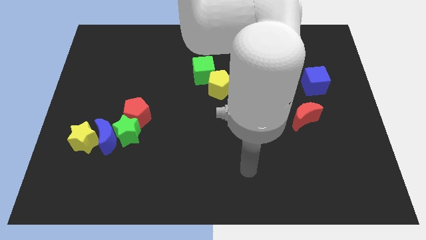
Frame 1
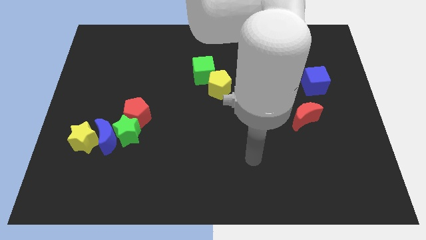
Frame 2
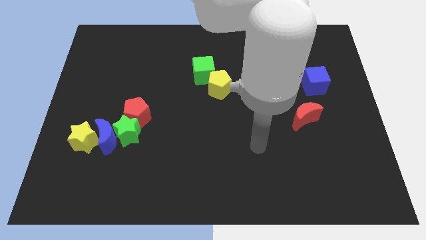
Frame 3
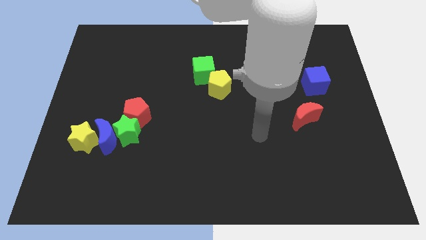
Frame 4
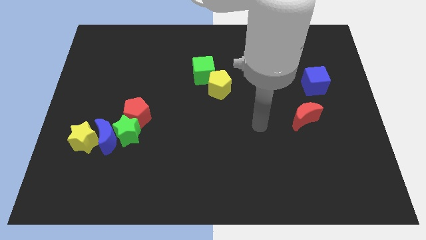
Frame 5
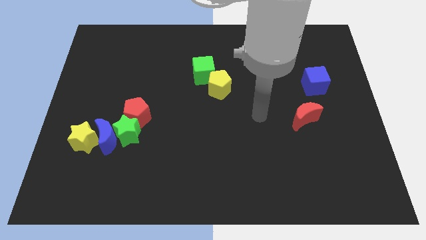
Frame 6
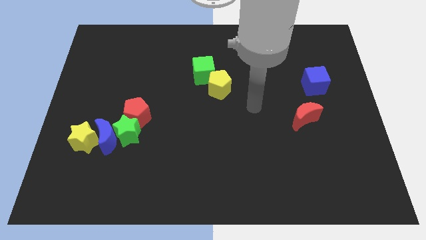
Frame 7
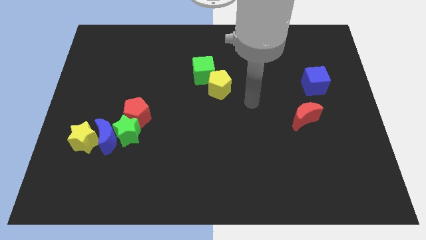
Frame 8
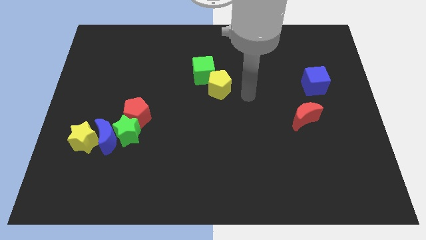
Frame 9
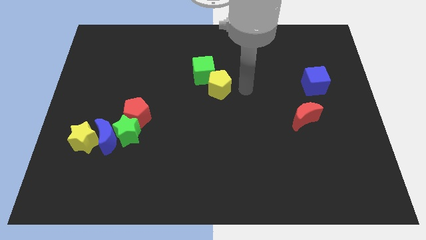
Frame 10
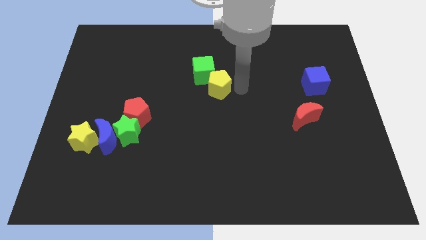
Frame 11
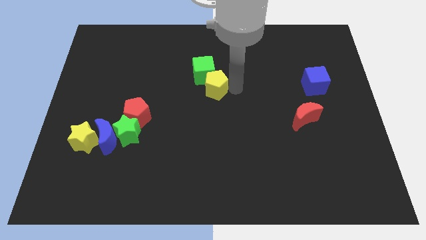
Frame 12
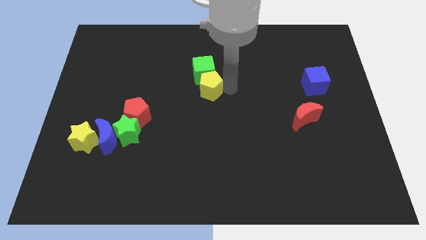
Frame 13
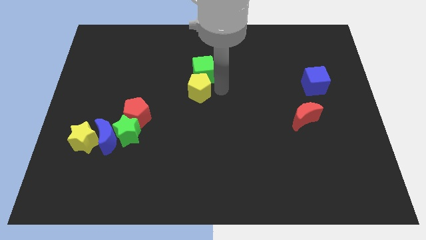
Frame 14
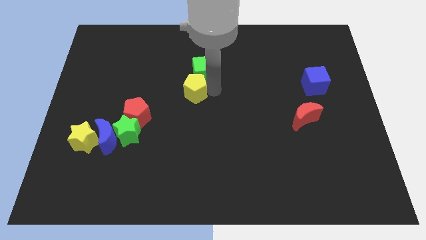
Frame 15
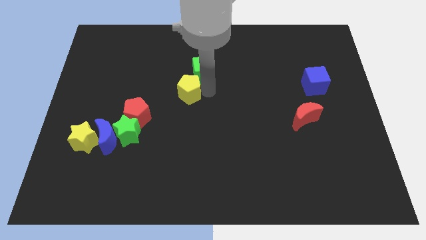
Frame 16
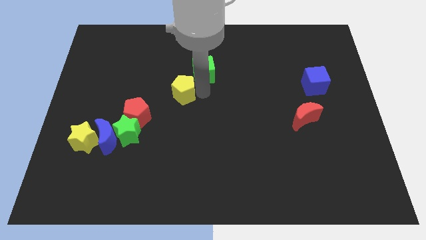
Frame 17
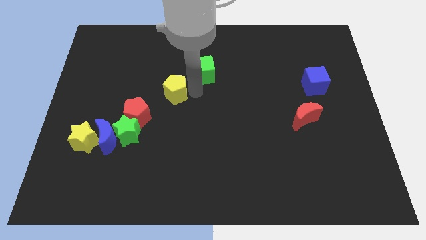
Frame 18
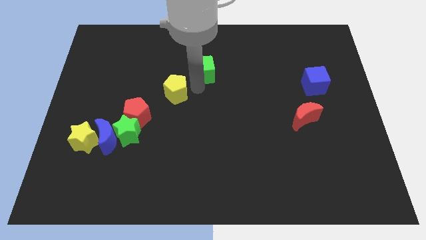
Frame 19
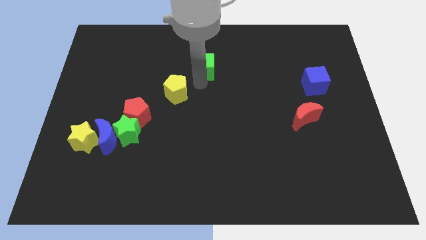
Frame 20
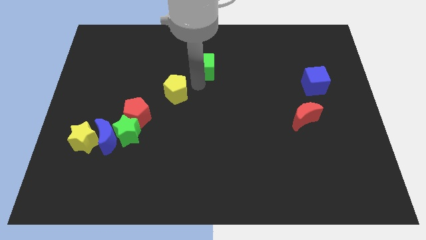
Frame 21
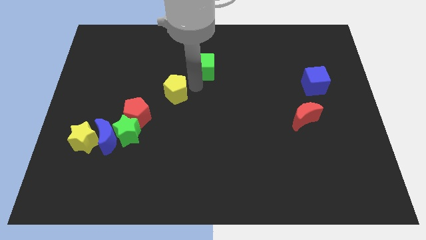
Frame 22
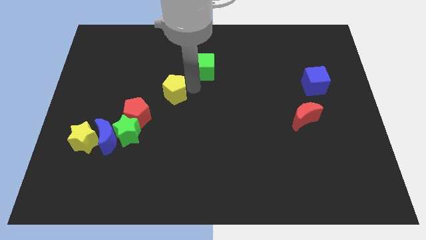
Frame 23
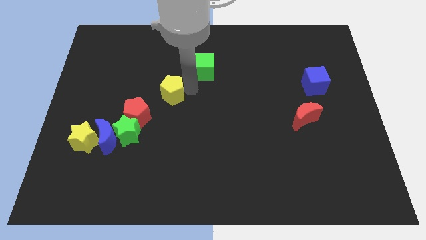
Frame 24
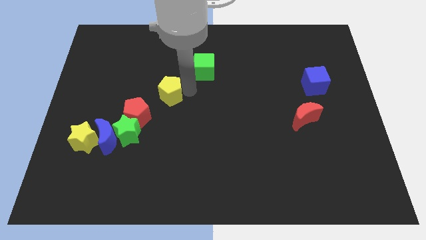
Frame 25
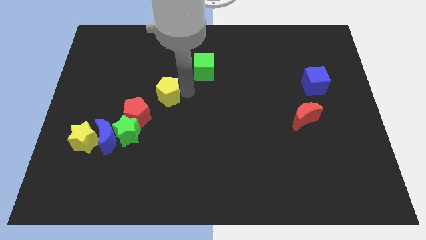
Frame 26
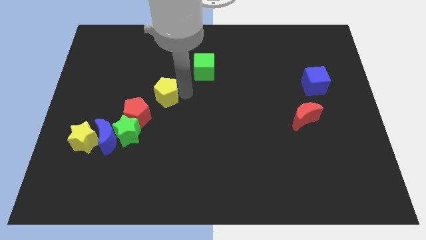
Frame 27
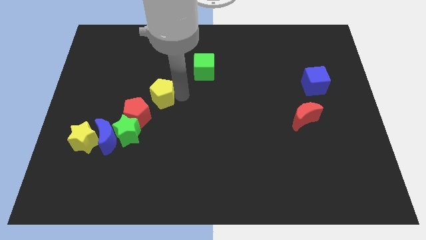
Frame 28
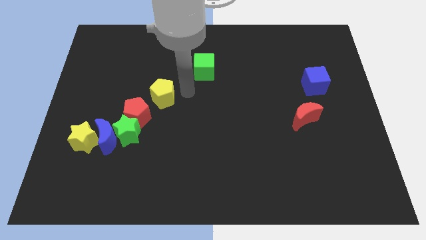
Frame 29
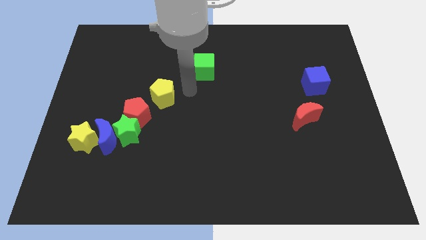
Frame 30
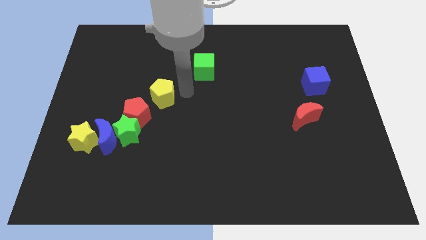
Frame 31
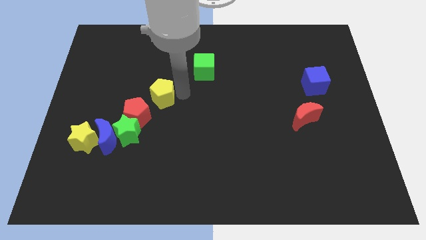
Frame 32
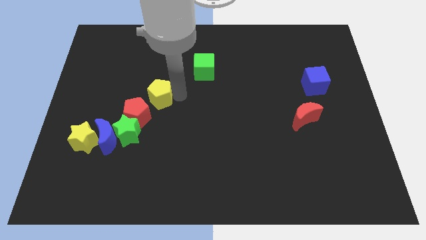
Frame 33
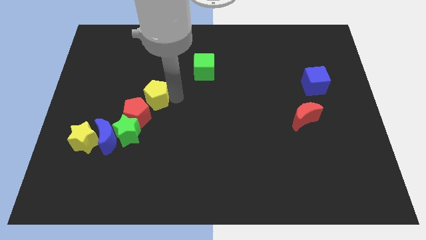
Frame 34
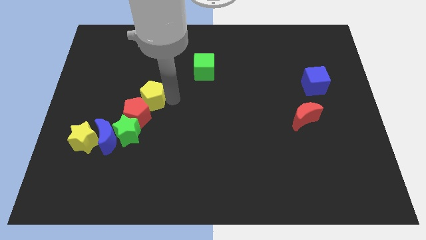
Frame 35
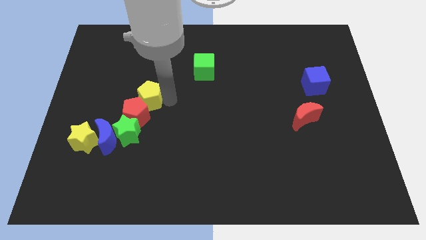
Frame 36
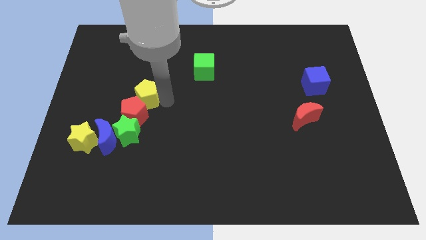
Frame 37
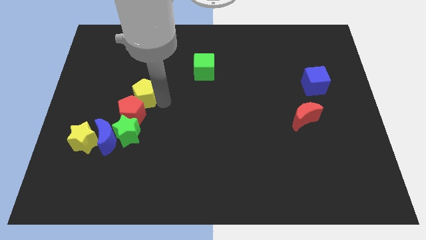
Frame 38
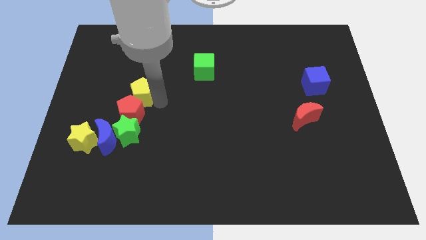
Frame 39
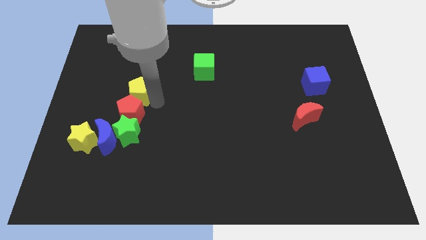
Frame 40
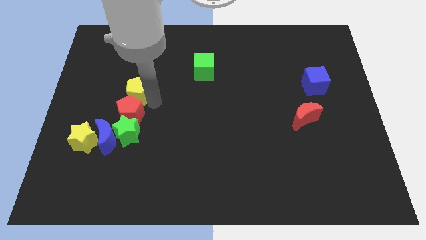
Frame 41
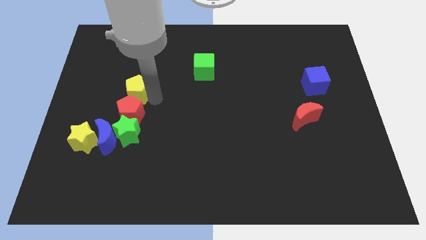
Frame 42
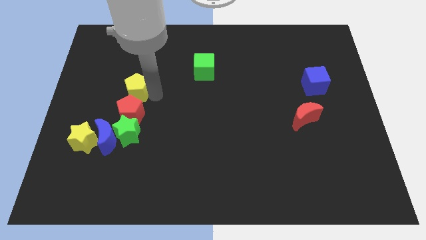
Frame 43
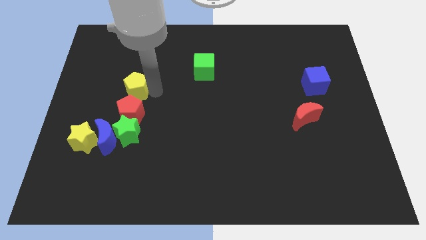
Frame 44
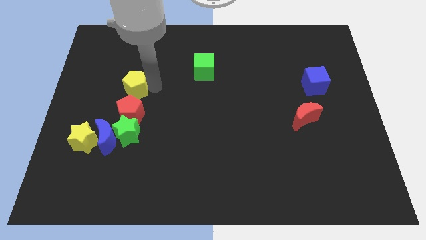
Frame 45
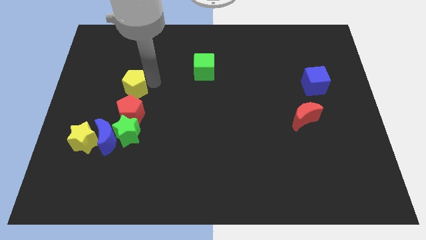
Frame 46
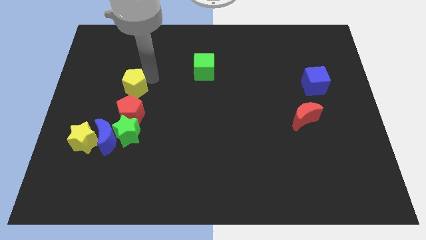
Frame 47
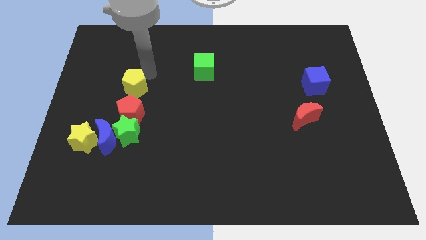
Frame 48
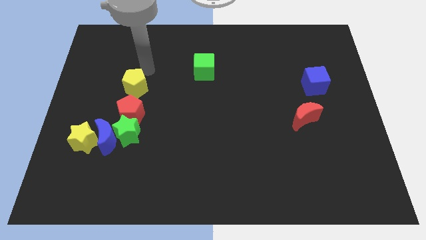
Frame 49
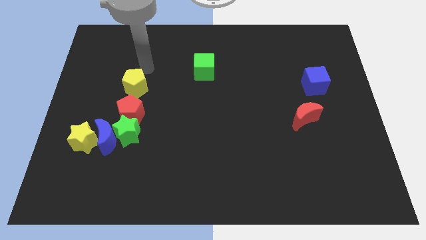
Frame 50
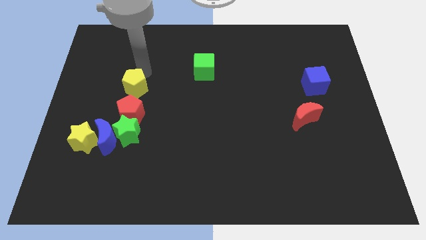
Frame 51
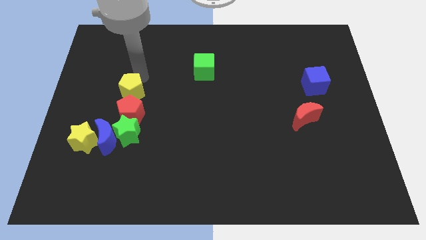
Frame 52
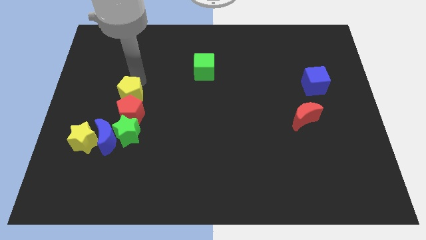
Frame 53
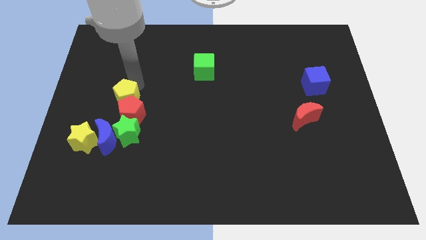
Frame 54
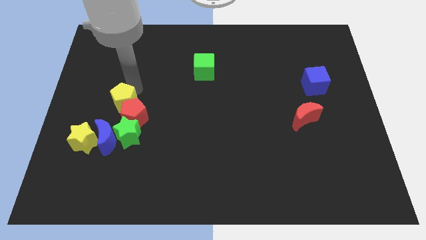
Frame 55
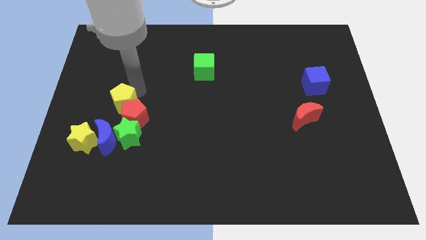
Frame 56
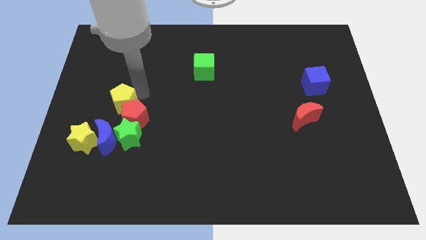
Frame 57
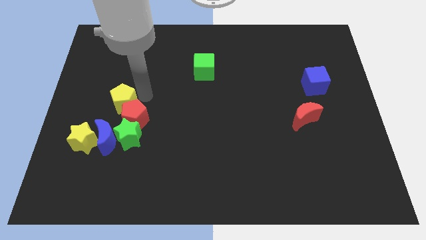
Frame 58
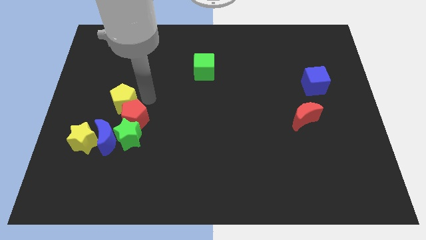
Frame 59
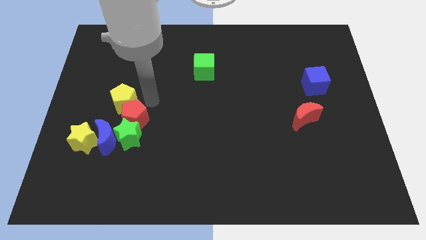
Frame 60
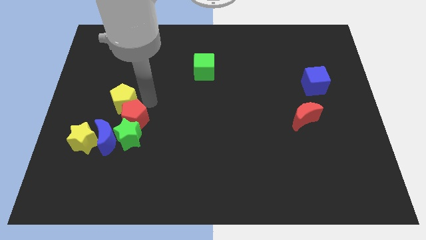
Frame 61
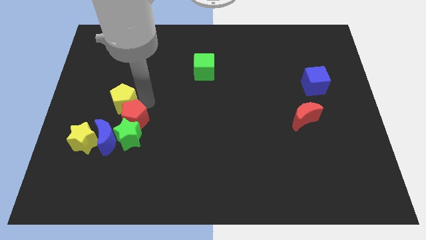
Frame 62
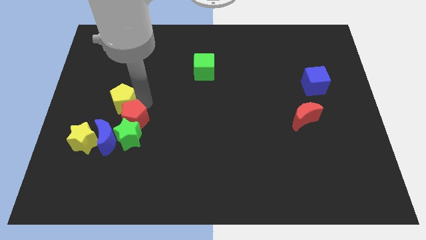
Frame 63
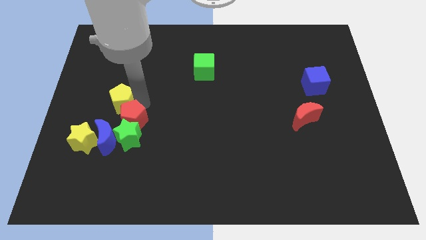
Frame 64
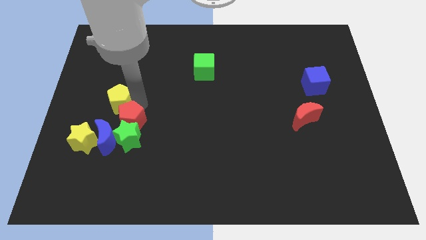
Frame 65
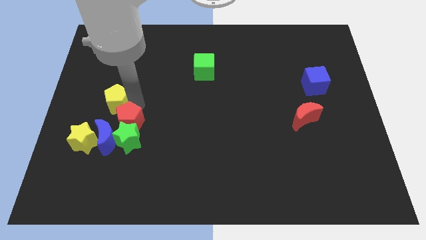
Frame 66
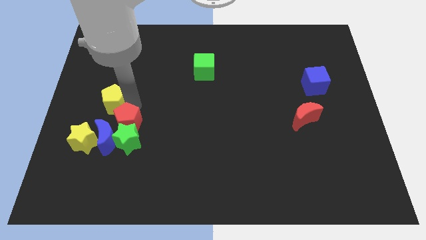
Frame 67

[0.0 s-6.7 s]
slide the yellow pentagon to the top side of the yellow star
